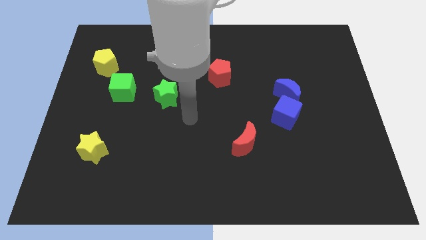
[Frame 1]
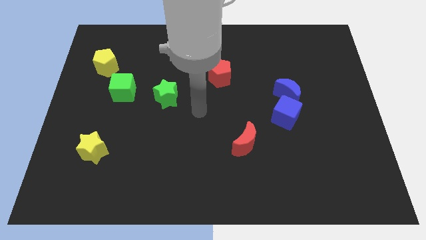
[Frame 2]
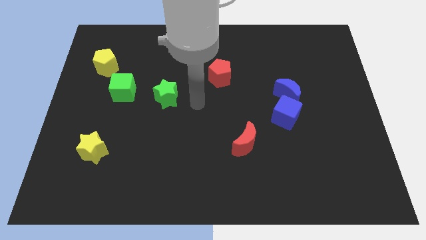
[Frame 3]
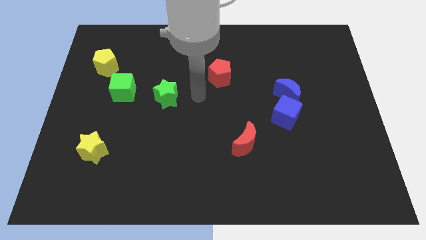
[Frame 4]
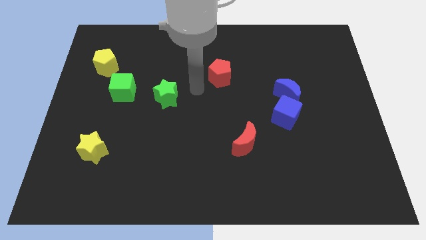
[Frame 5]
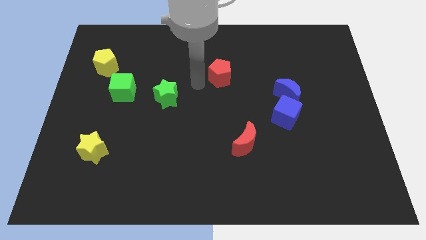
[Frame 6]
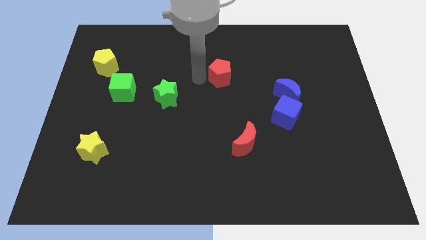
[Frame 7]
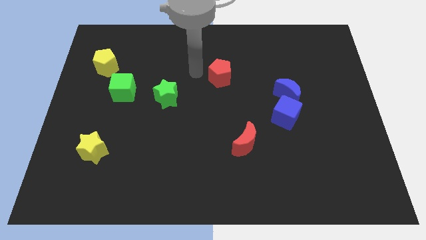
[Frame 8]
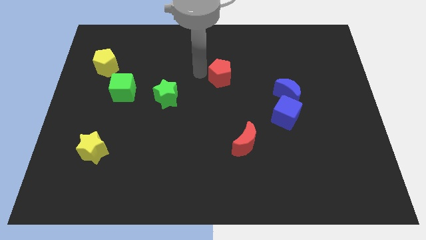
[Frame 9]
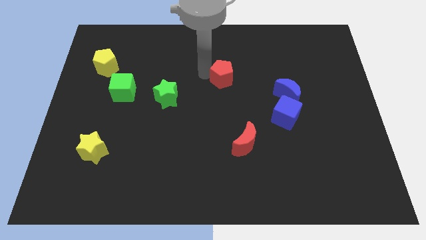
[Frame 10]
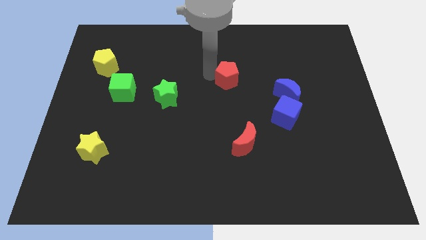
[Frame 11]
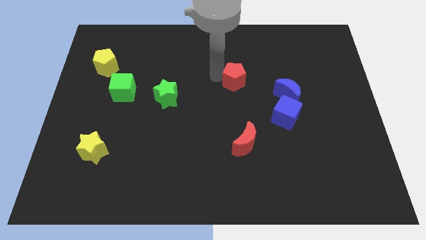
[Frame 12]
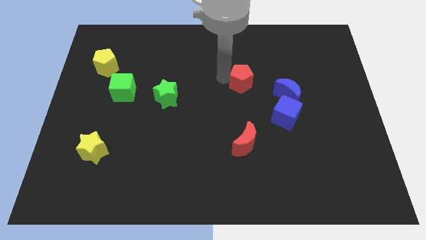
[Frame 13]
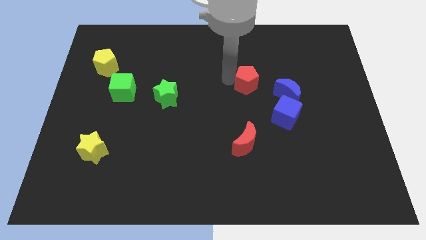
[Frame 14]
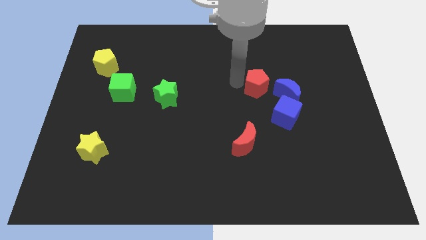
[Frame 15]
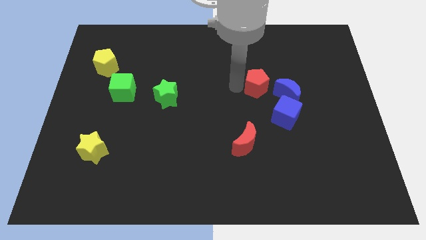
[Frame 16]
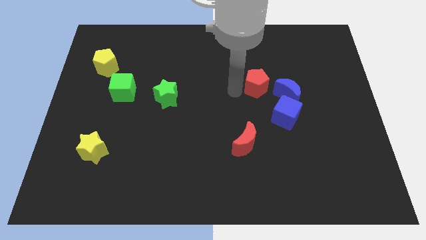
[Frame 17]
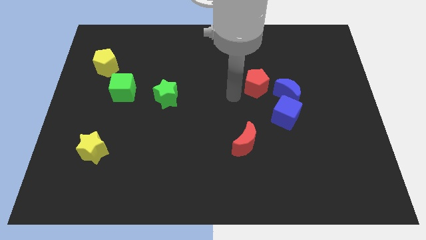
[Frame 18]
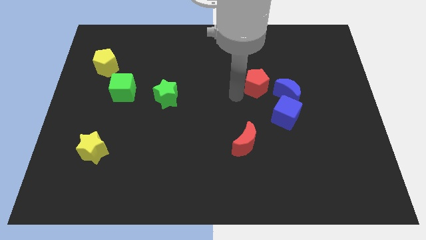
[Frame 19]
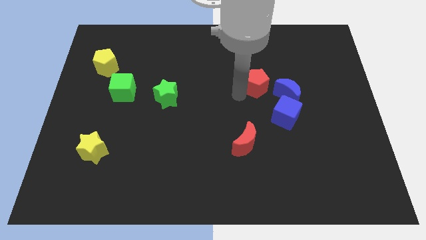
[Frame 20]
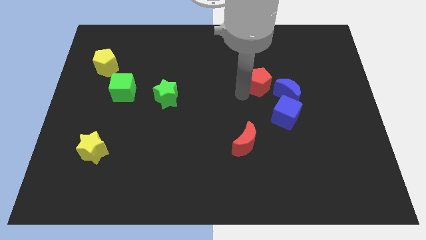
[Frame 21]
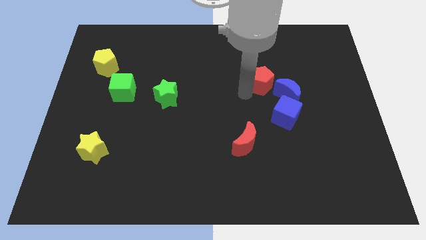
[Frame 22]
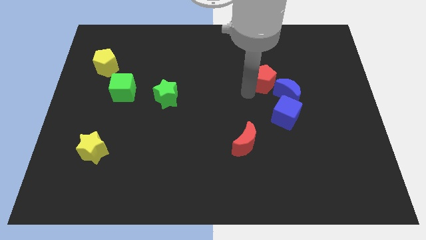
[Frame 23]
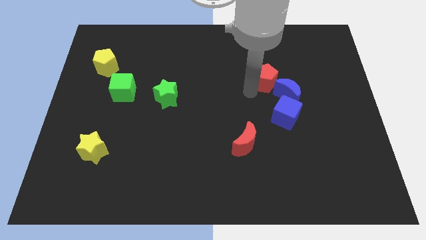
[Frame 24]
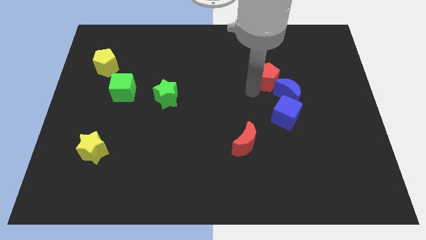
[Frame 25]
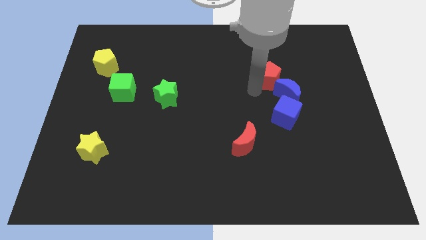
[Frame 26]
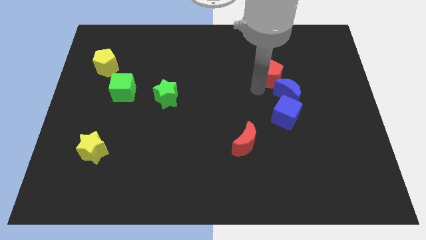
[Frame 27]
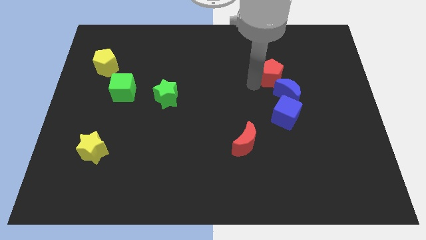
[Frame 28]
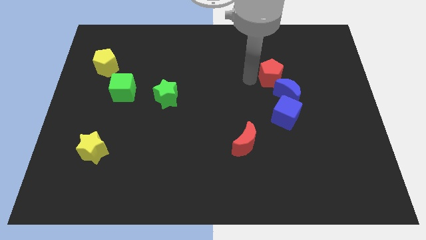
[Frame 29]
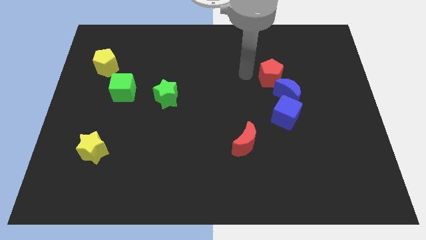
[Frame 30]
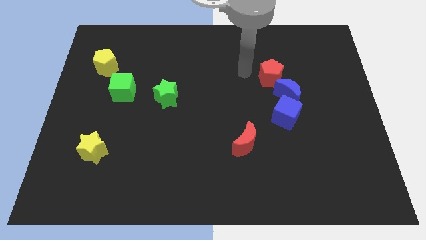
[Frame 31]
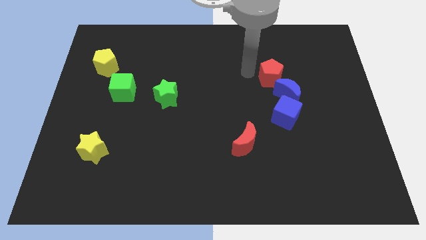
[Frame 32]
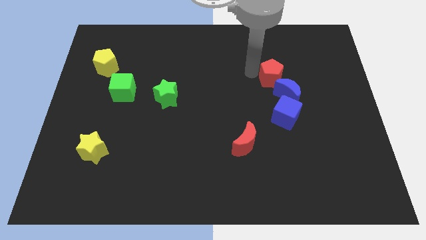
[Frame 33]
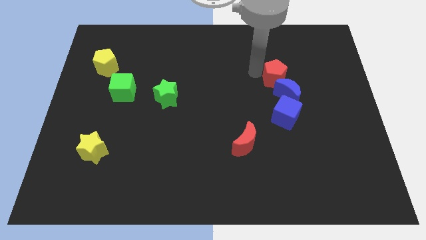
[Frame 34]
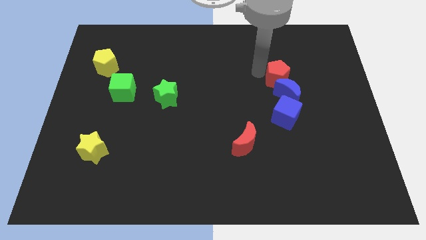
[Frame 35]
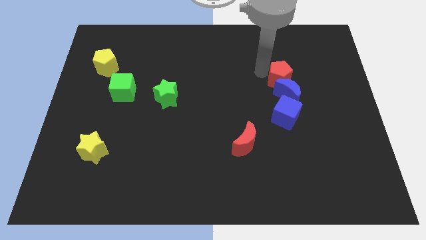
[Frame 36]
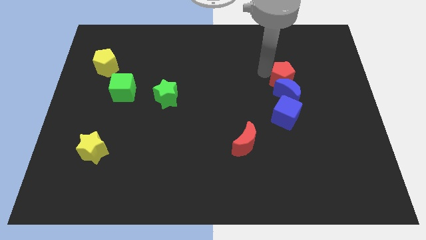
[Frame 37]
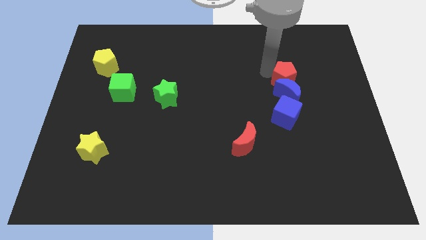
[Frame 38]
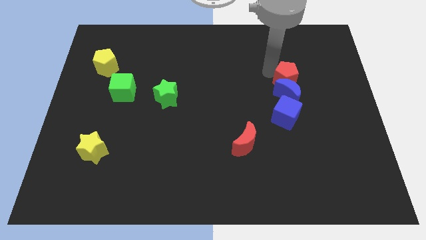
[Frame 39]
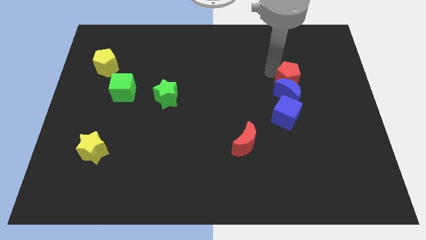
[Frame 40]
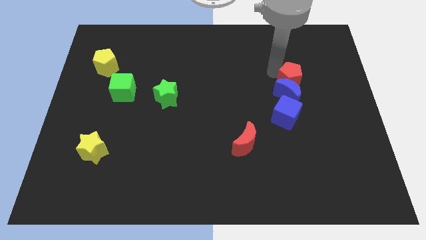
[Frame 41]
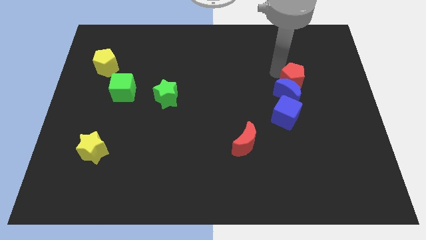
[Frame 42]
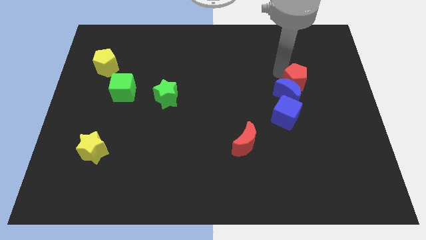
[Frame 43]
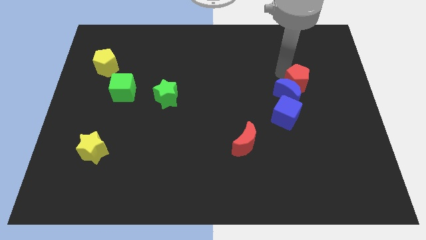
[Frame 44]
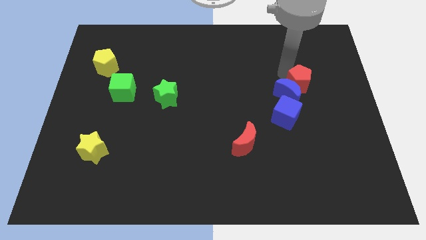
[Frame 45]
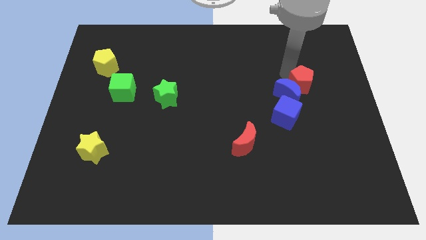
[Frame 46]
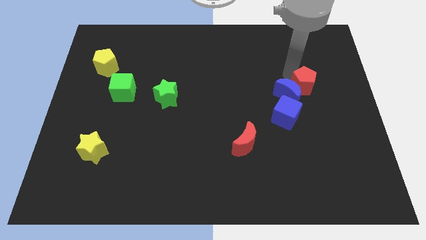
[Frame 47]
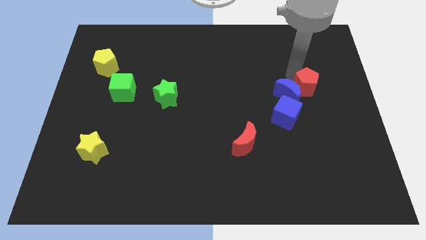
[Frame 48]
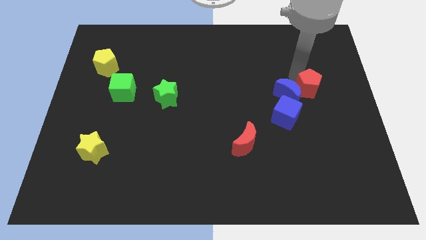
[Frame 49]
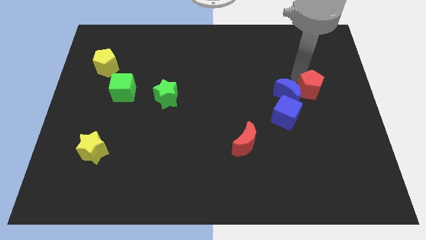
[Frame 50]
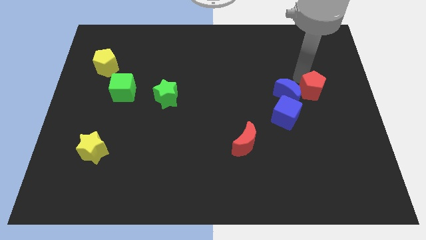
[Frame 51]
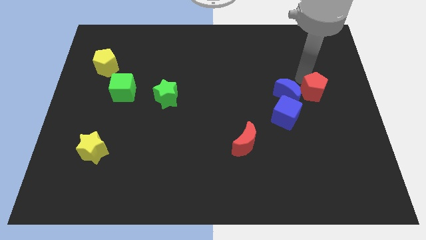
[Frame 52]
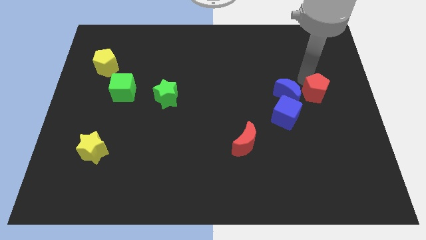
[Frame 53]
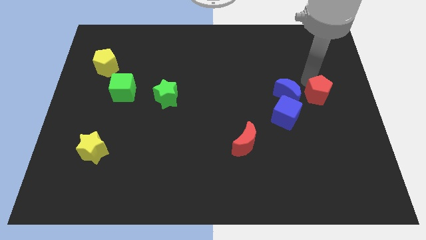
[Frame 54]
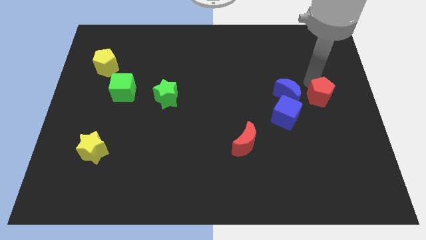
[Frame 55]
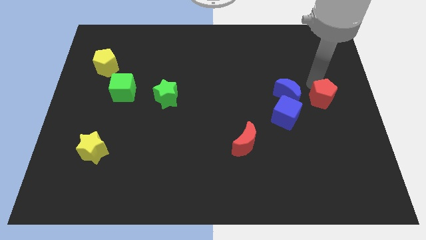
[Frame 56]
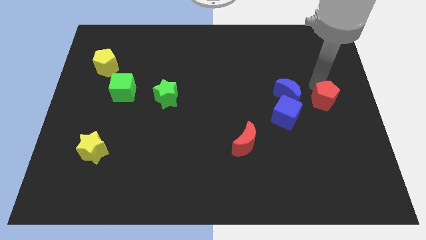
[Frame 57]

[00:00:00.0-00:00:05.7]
push the red pentagon just right of the blue cube

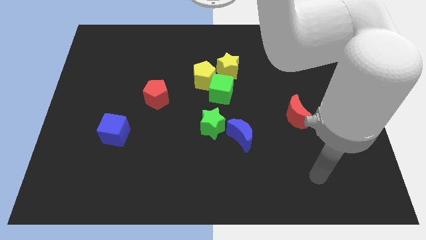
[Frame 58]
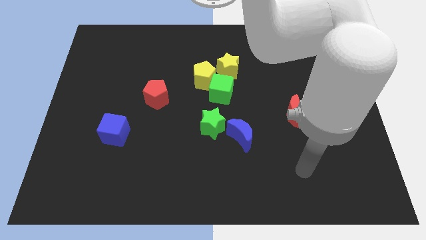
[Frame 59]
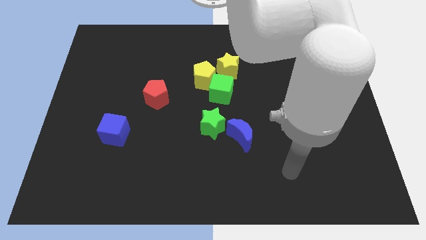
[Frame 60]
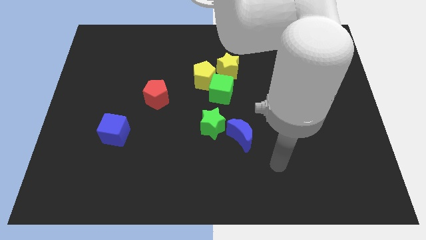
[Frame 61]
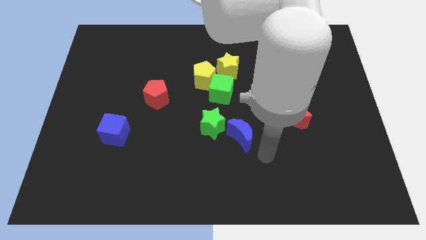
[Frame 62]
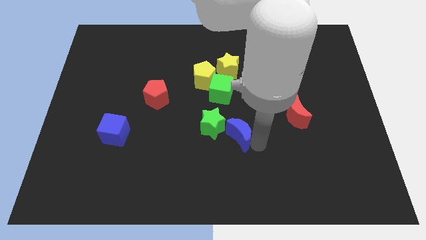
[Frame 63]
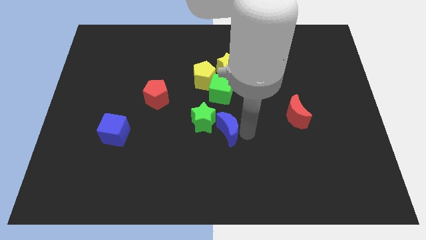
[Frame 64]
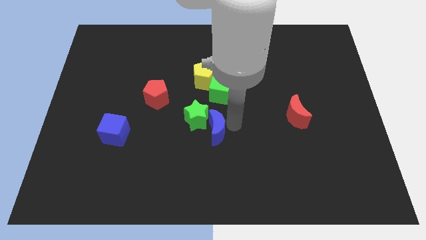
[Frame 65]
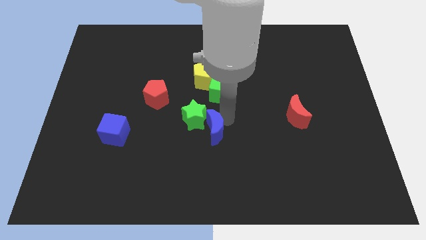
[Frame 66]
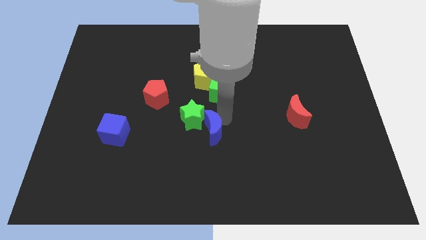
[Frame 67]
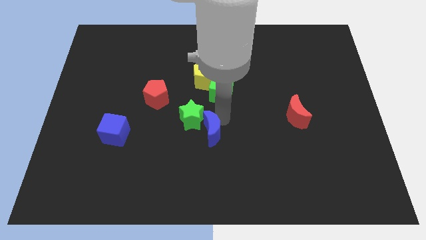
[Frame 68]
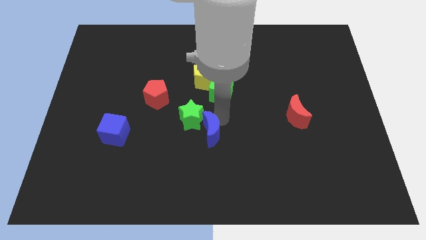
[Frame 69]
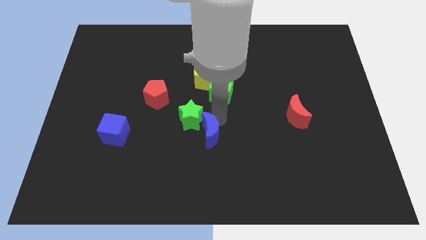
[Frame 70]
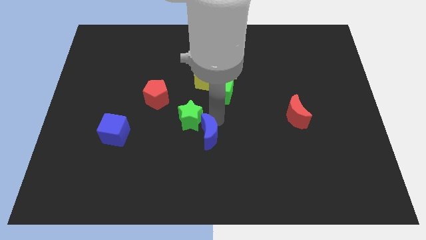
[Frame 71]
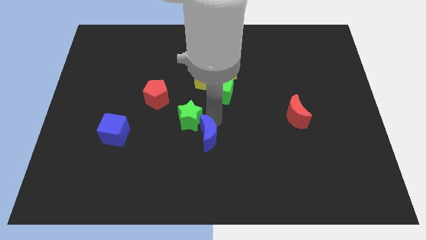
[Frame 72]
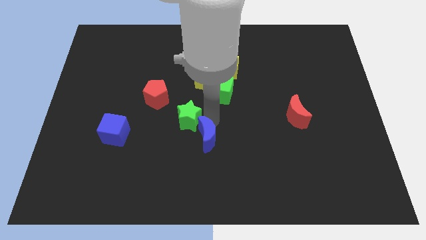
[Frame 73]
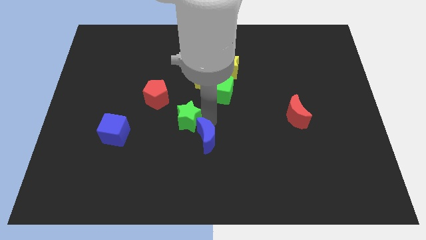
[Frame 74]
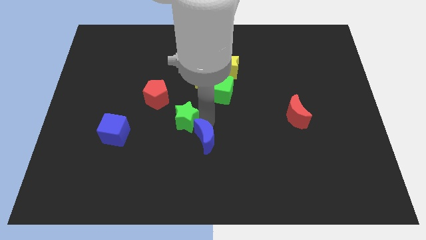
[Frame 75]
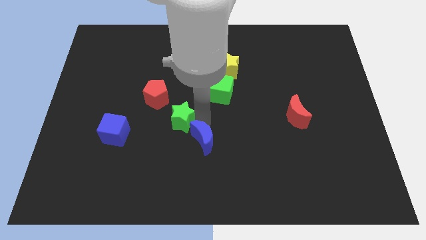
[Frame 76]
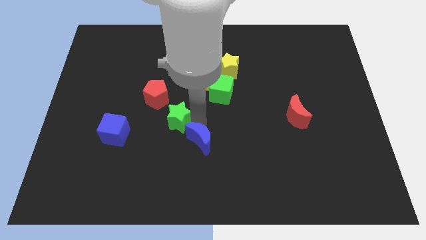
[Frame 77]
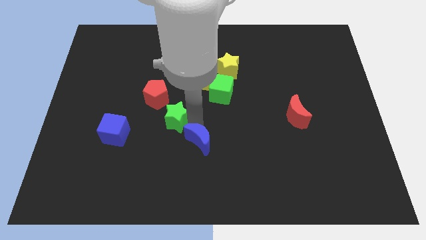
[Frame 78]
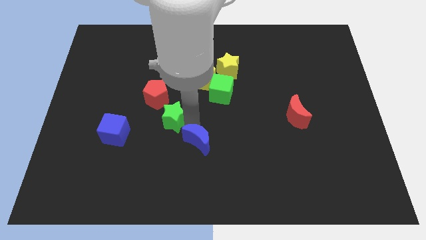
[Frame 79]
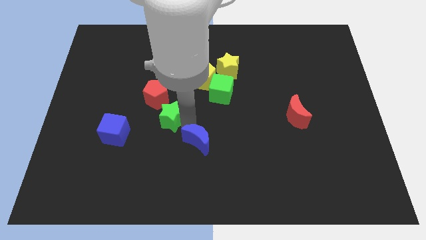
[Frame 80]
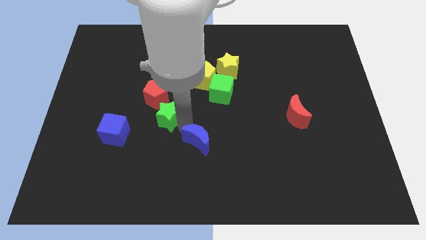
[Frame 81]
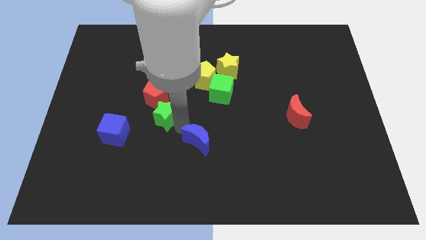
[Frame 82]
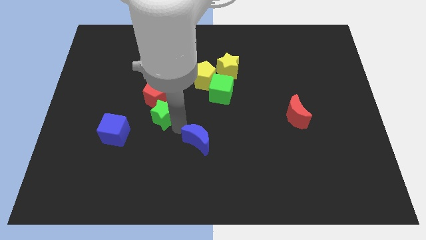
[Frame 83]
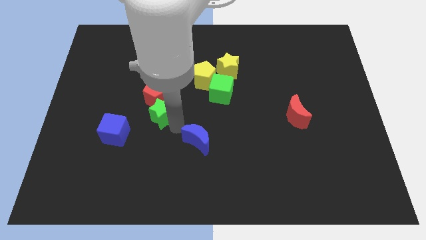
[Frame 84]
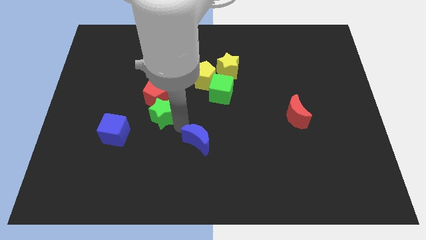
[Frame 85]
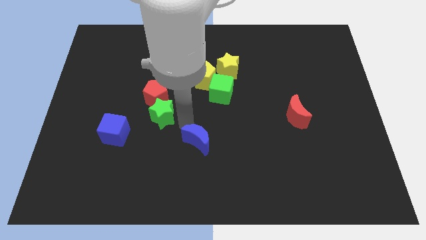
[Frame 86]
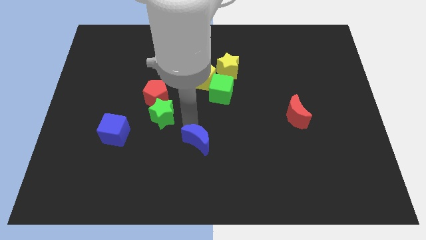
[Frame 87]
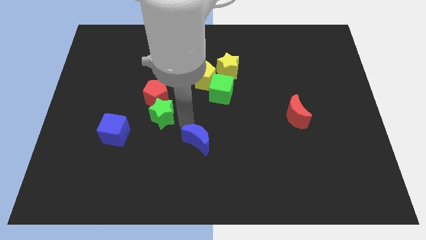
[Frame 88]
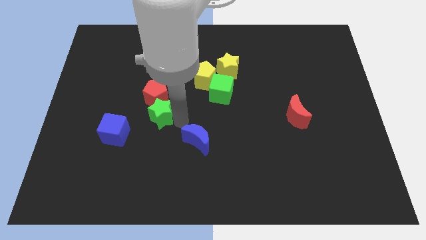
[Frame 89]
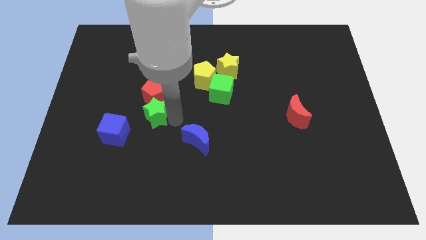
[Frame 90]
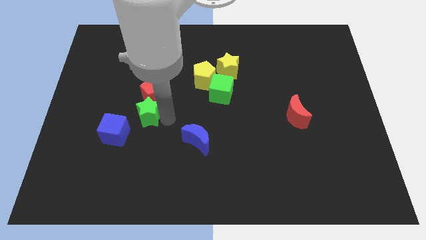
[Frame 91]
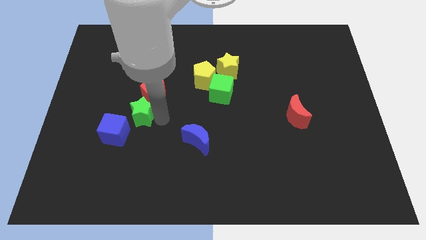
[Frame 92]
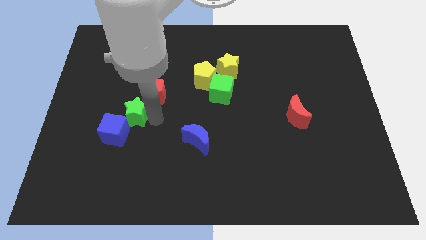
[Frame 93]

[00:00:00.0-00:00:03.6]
slide the green star to the top side of the blue cube
